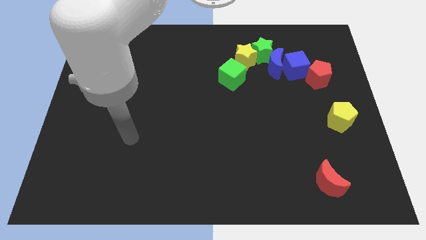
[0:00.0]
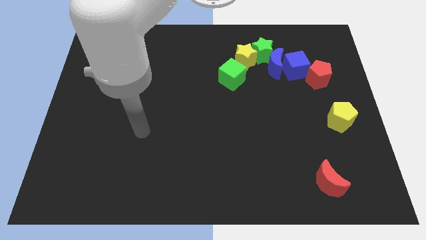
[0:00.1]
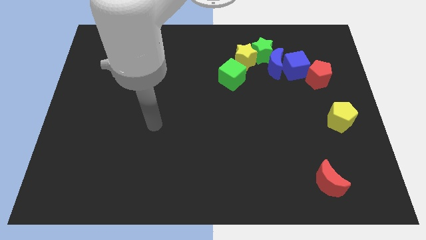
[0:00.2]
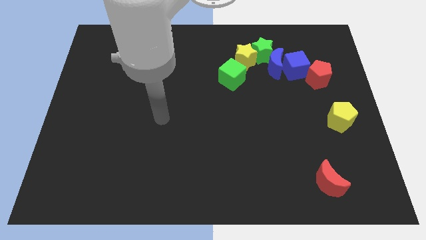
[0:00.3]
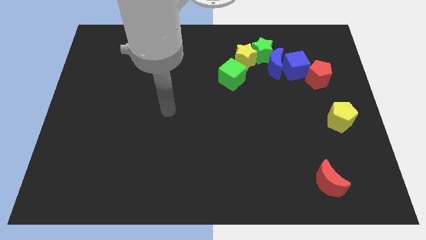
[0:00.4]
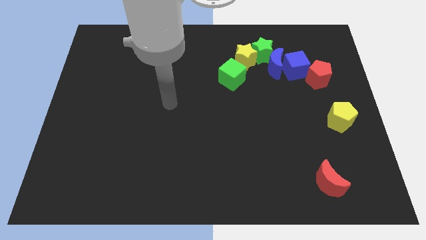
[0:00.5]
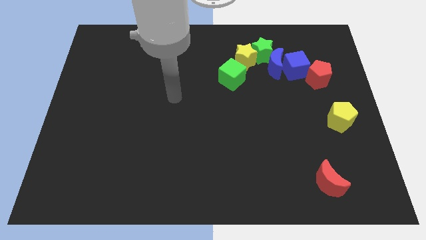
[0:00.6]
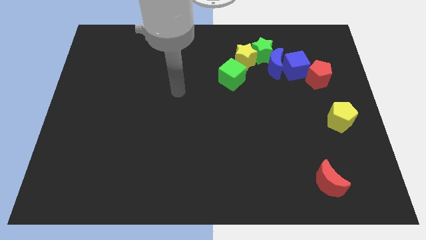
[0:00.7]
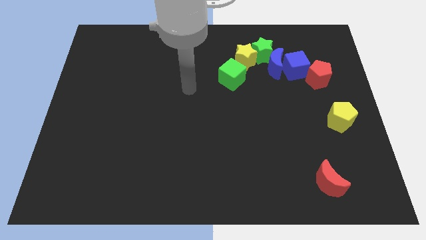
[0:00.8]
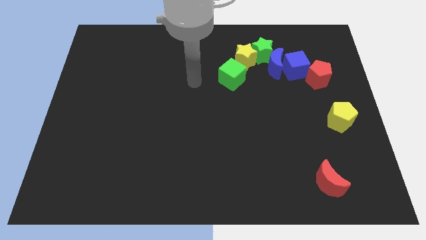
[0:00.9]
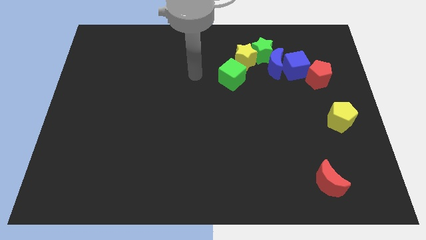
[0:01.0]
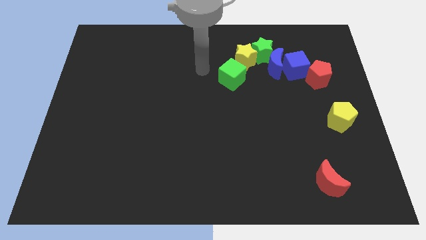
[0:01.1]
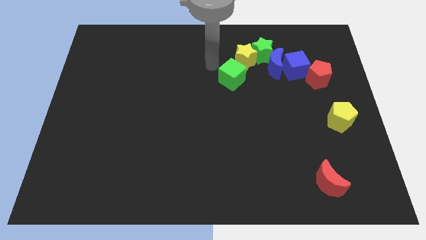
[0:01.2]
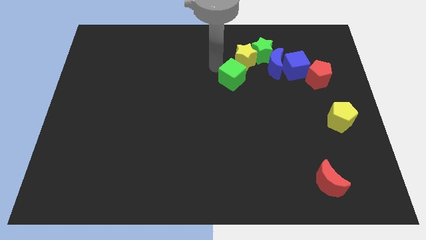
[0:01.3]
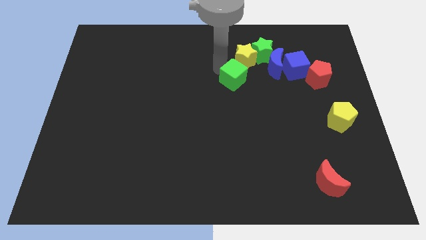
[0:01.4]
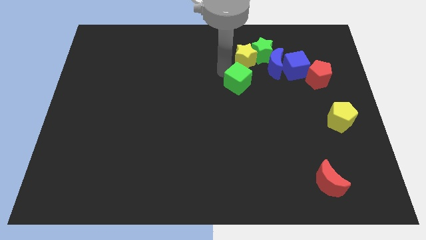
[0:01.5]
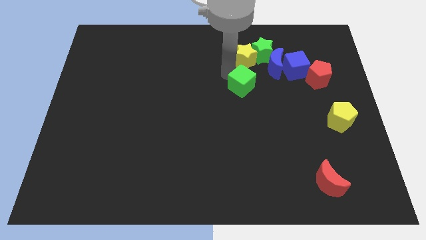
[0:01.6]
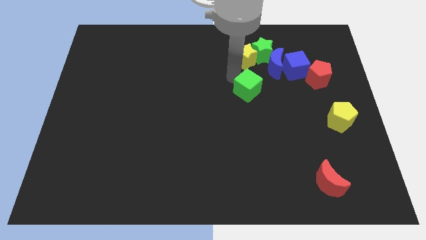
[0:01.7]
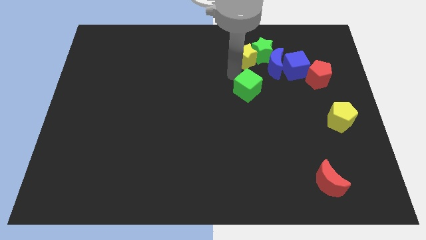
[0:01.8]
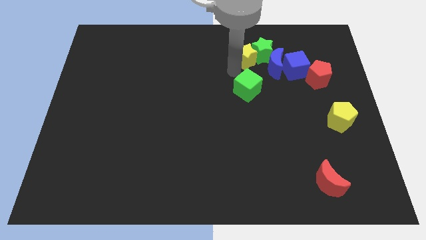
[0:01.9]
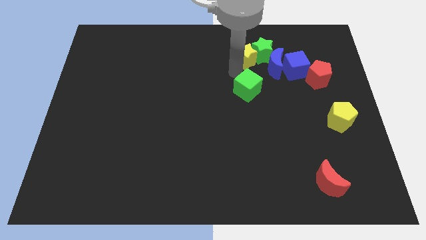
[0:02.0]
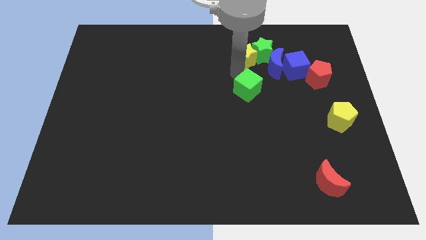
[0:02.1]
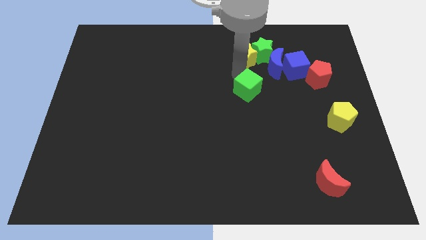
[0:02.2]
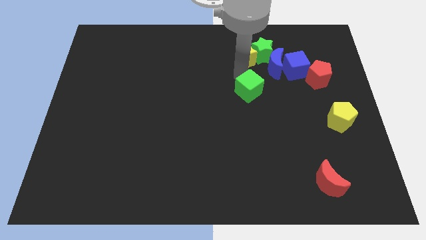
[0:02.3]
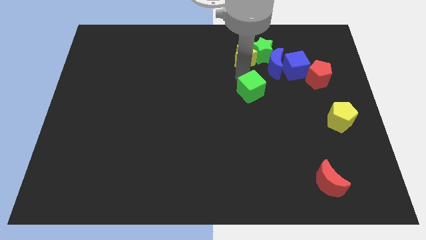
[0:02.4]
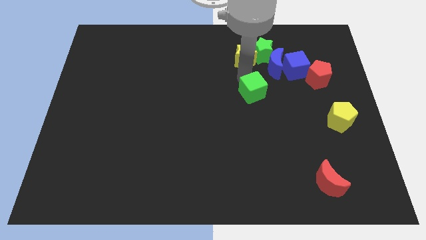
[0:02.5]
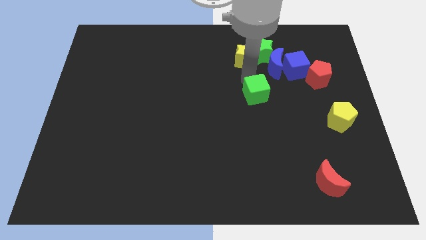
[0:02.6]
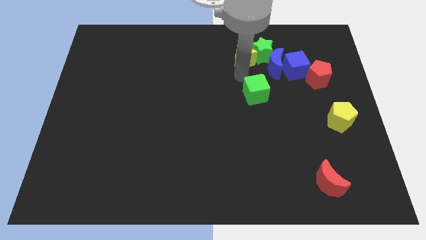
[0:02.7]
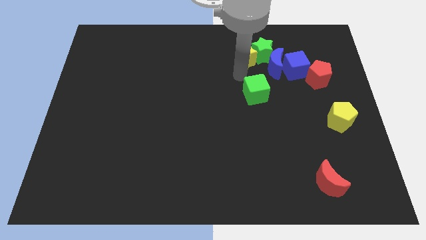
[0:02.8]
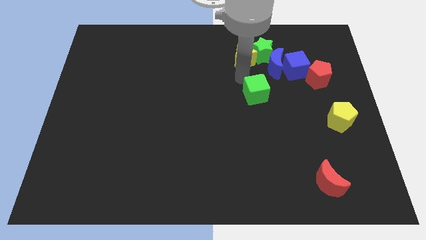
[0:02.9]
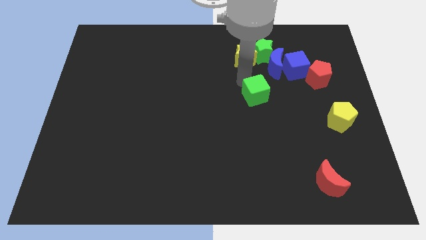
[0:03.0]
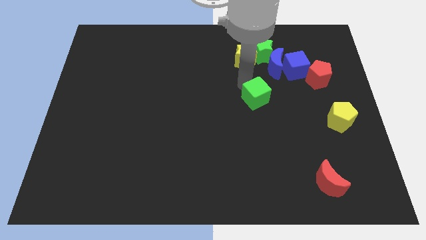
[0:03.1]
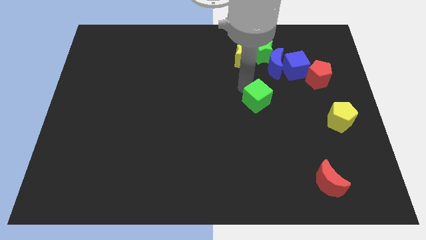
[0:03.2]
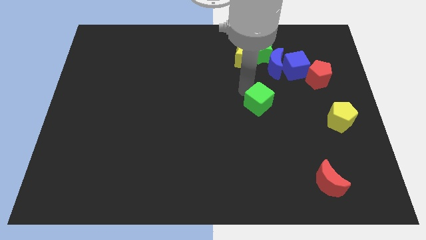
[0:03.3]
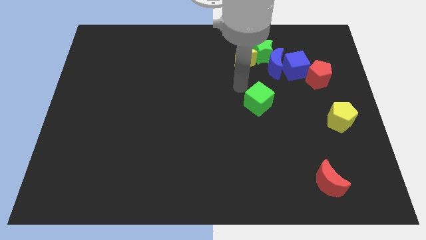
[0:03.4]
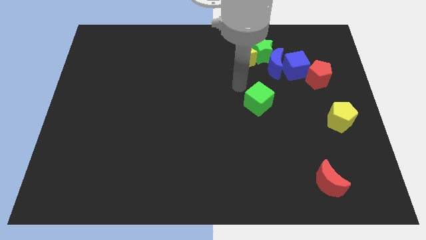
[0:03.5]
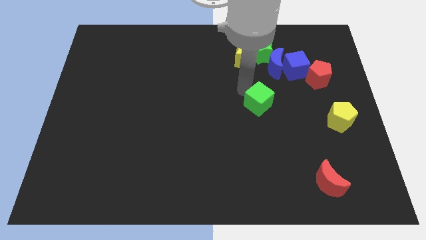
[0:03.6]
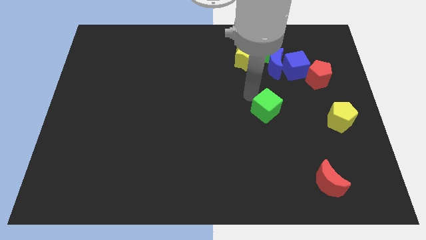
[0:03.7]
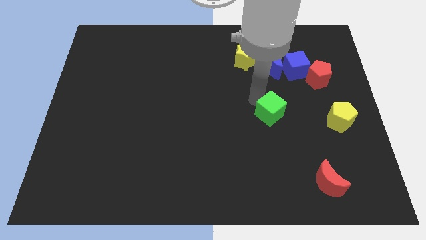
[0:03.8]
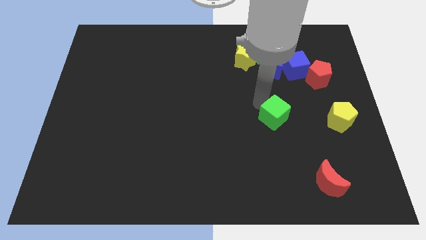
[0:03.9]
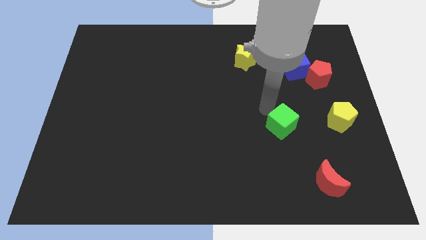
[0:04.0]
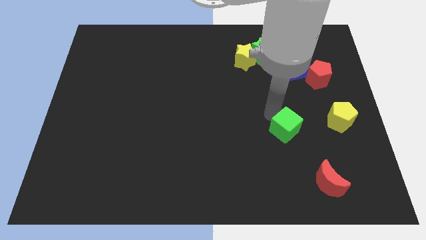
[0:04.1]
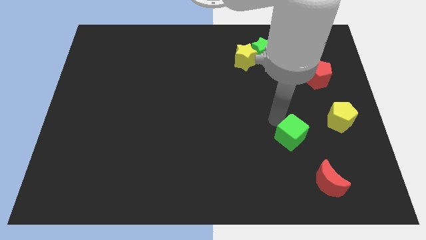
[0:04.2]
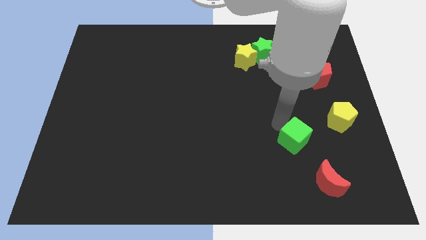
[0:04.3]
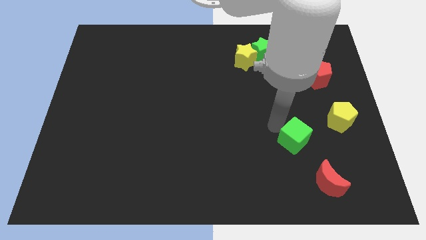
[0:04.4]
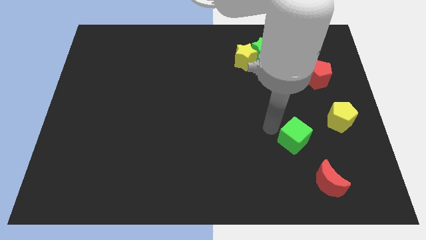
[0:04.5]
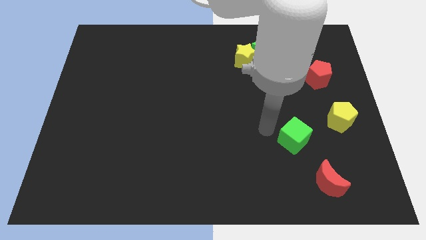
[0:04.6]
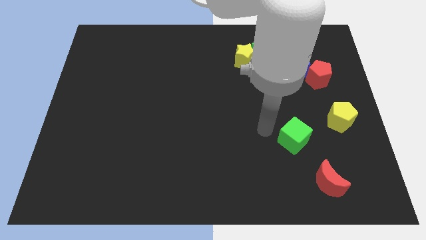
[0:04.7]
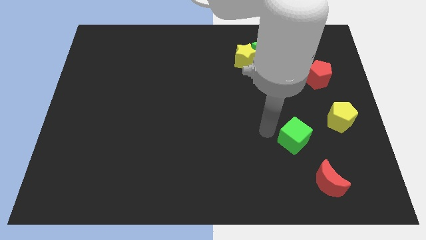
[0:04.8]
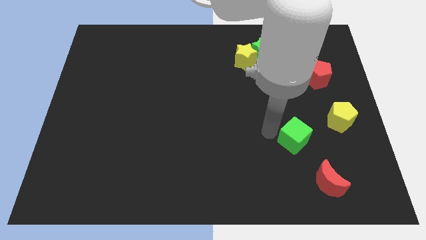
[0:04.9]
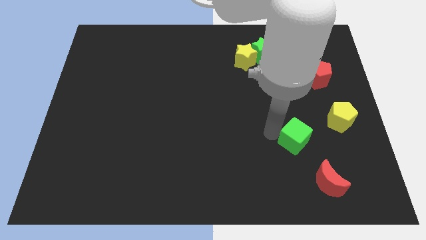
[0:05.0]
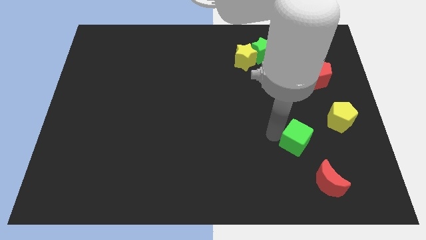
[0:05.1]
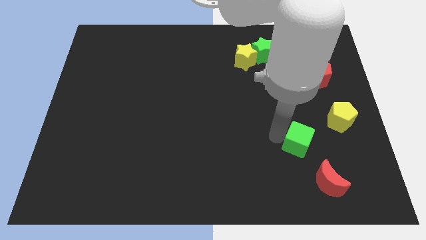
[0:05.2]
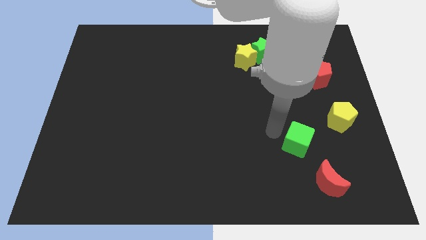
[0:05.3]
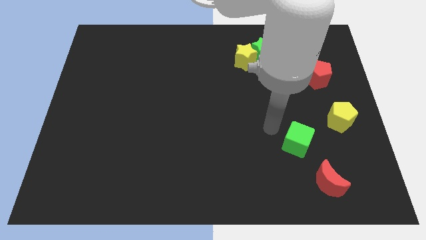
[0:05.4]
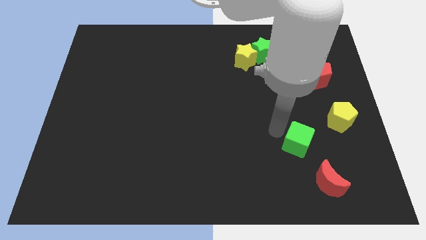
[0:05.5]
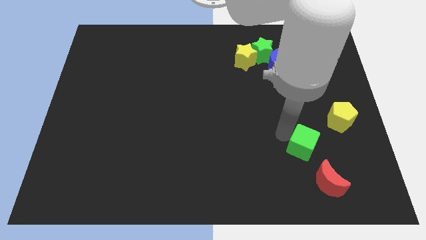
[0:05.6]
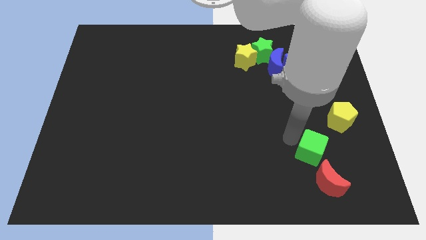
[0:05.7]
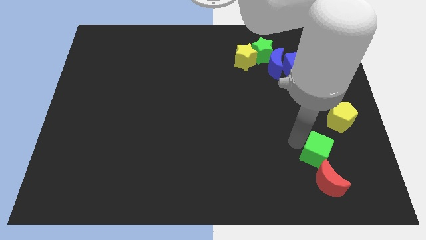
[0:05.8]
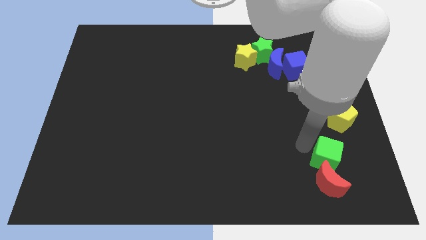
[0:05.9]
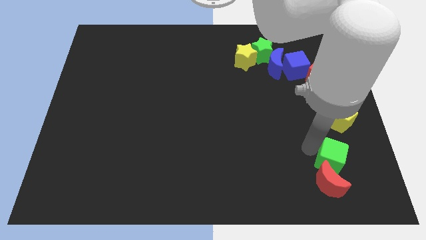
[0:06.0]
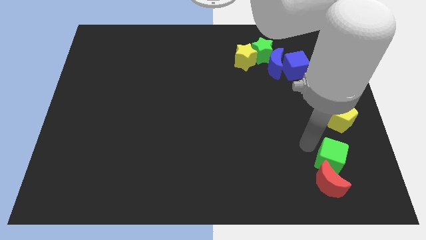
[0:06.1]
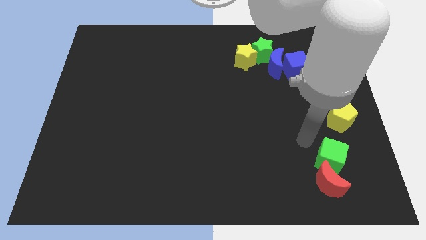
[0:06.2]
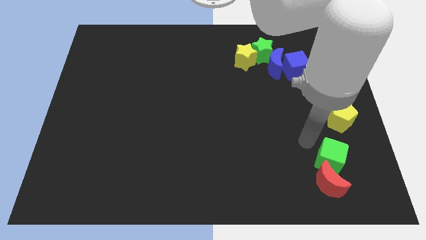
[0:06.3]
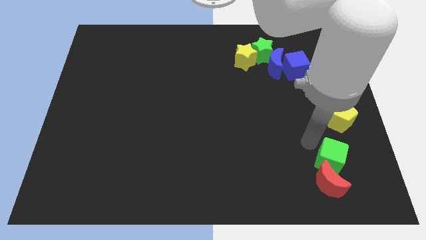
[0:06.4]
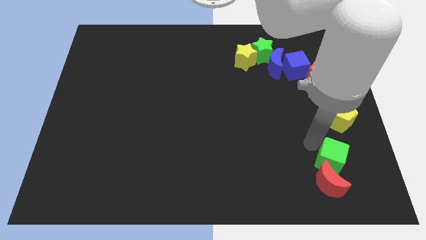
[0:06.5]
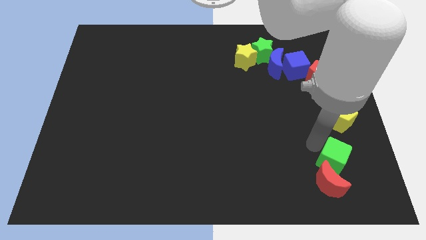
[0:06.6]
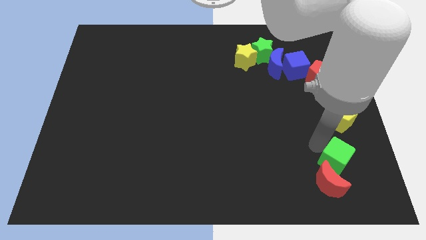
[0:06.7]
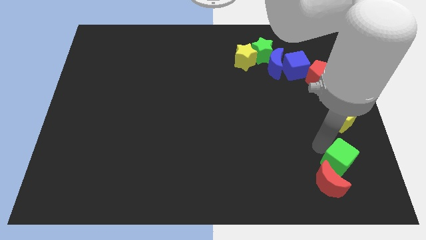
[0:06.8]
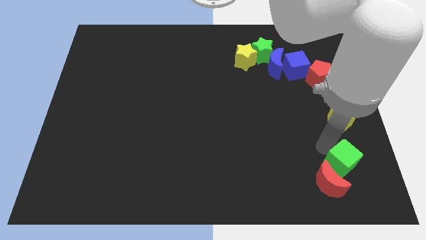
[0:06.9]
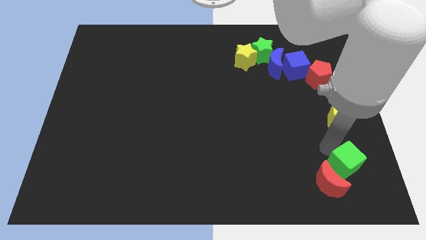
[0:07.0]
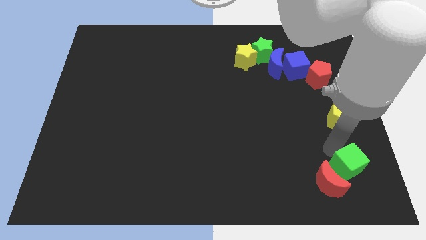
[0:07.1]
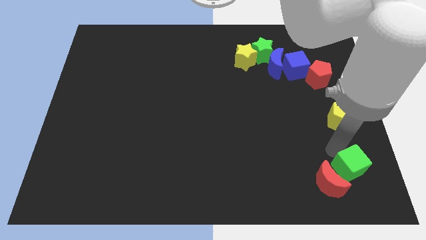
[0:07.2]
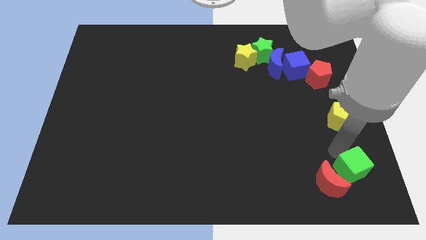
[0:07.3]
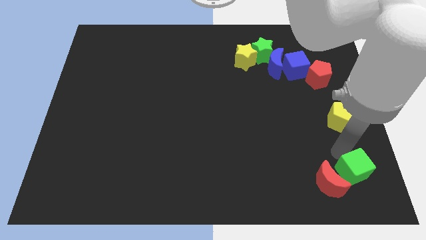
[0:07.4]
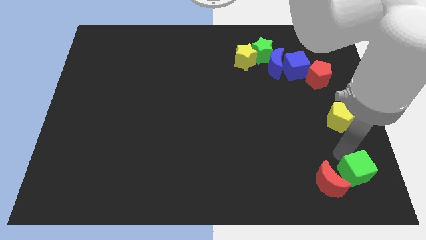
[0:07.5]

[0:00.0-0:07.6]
push the green cube to the bottom right
